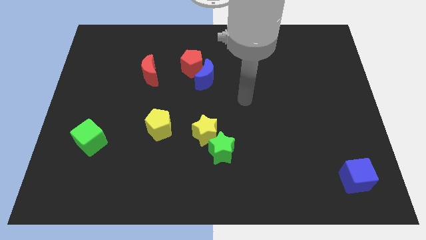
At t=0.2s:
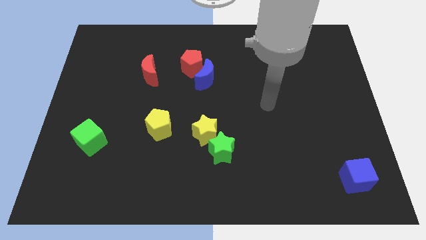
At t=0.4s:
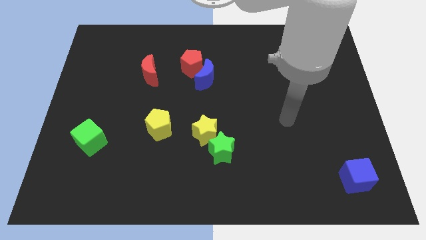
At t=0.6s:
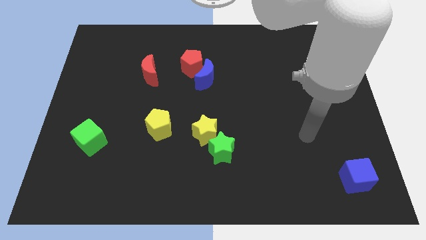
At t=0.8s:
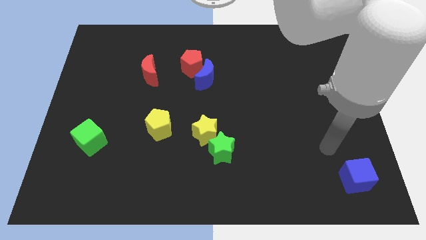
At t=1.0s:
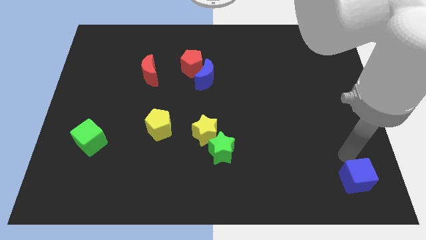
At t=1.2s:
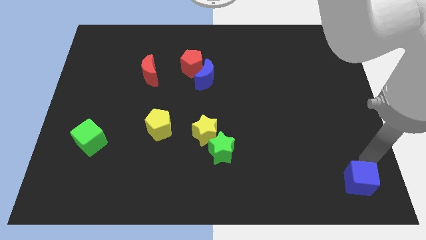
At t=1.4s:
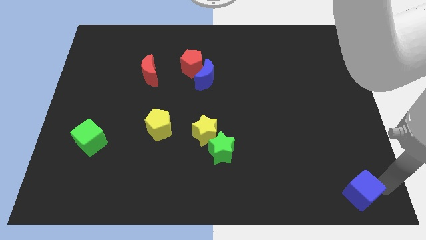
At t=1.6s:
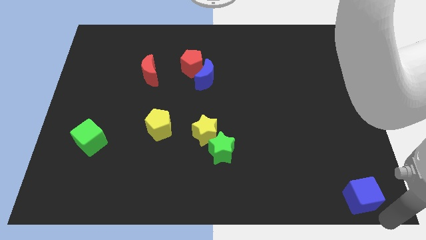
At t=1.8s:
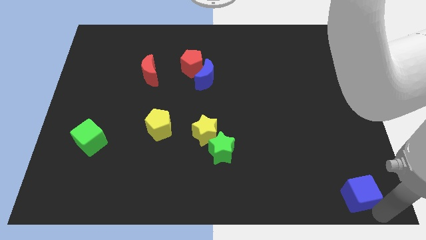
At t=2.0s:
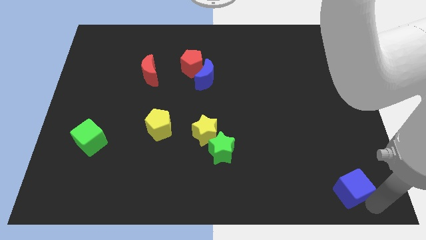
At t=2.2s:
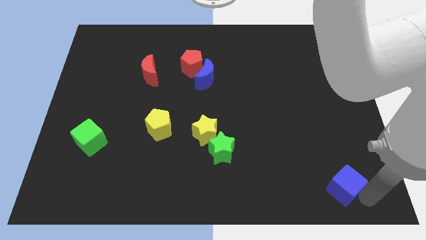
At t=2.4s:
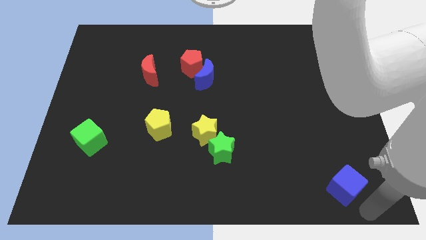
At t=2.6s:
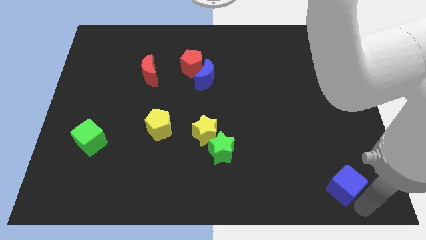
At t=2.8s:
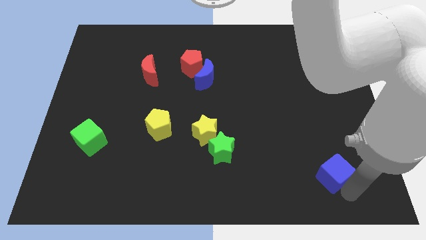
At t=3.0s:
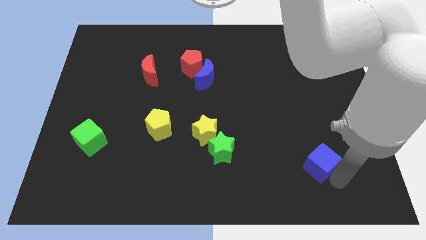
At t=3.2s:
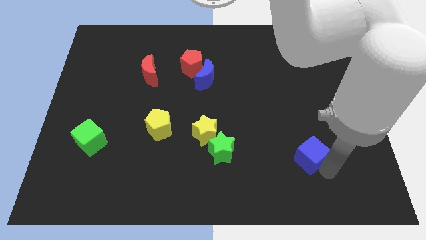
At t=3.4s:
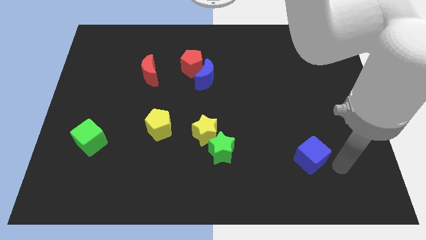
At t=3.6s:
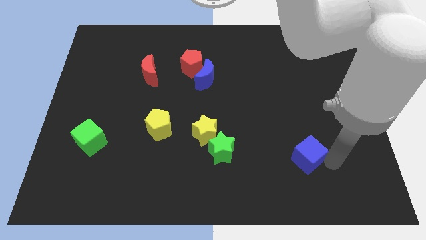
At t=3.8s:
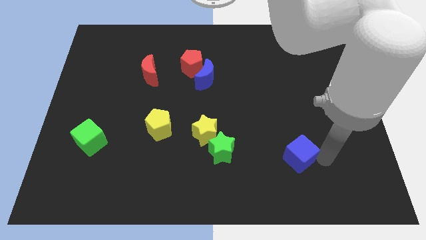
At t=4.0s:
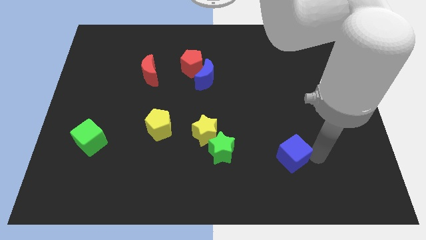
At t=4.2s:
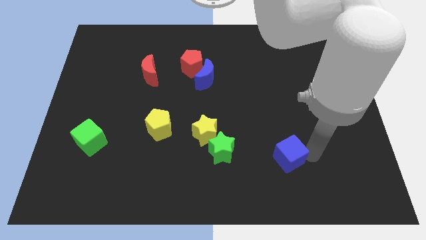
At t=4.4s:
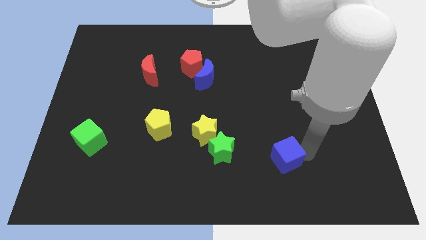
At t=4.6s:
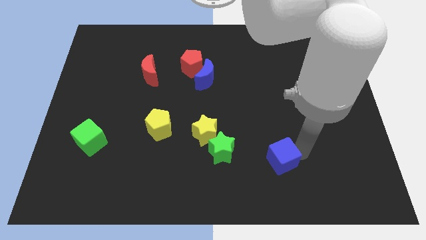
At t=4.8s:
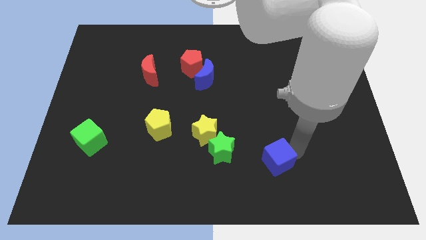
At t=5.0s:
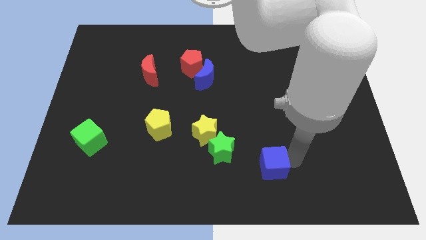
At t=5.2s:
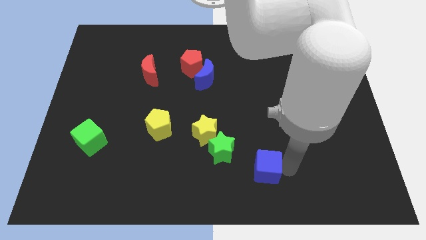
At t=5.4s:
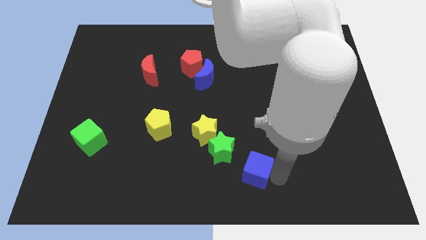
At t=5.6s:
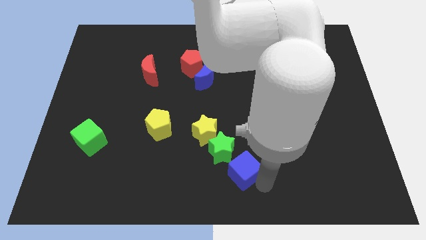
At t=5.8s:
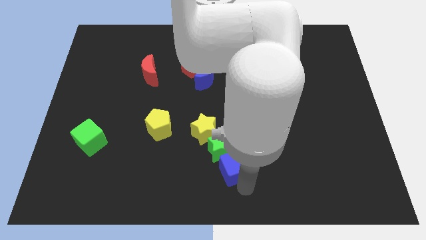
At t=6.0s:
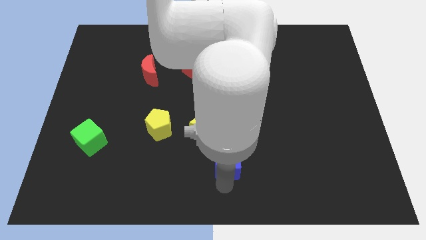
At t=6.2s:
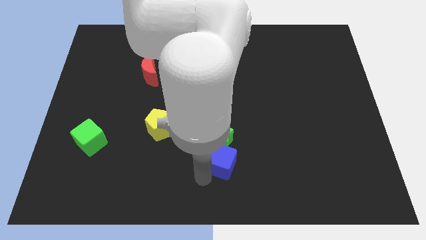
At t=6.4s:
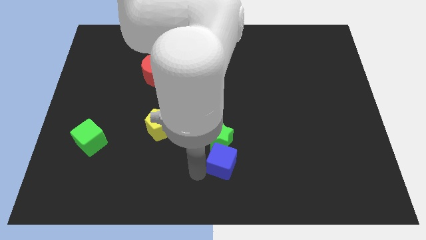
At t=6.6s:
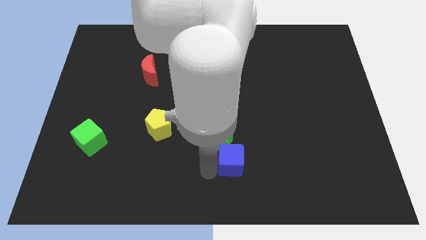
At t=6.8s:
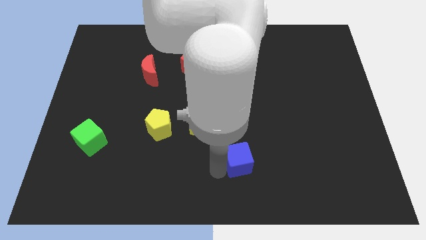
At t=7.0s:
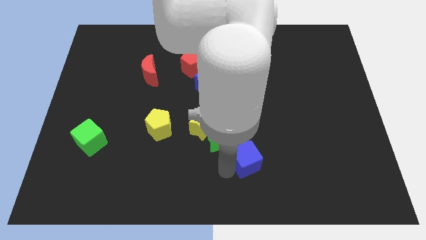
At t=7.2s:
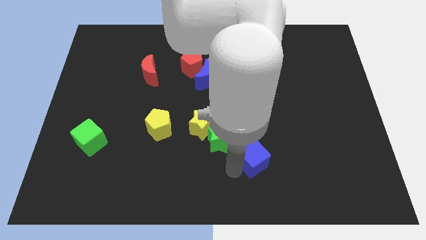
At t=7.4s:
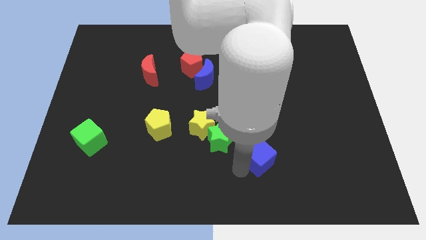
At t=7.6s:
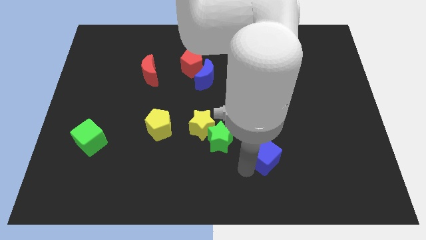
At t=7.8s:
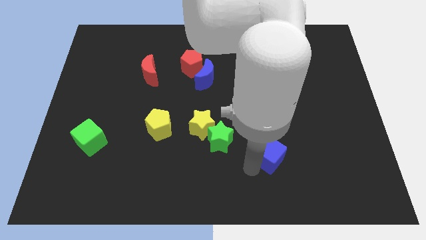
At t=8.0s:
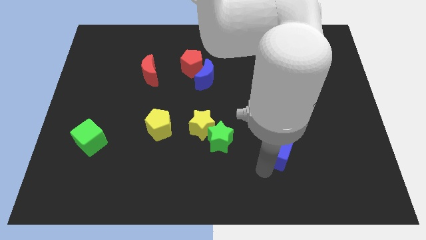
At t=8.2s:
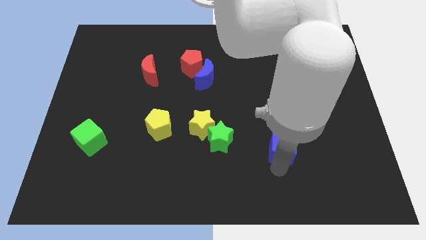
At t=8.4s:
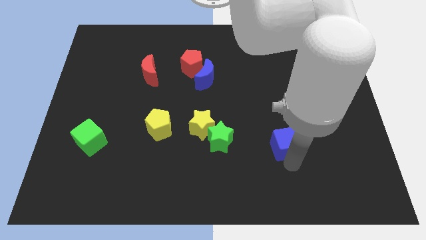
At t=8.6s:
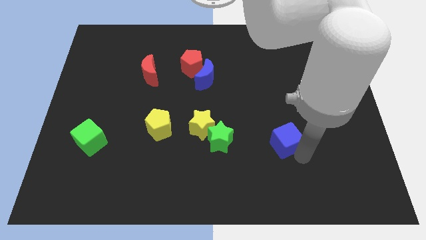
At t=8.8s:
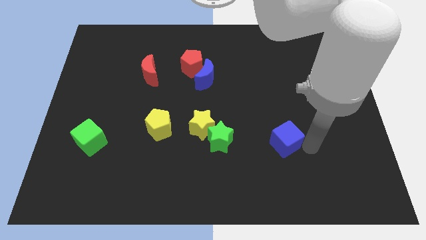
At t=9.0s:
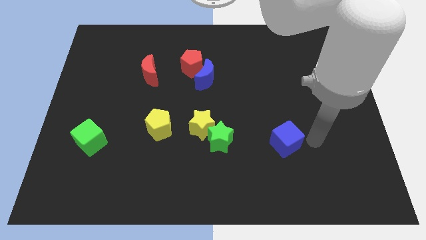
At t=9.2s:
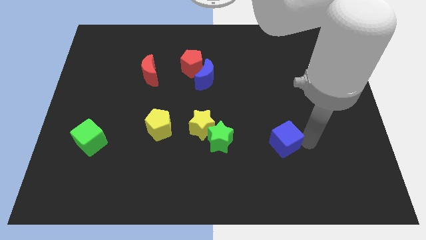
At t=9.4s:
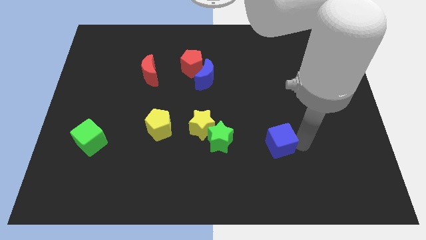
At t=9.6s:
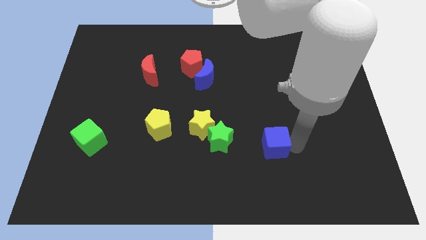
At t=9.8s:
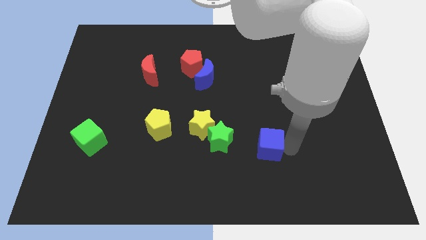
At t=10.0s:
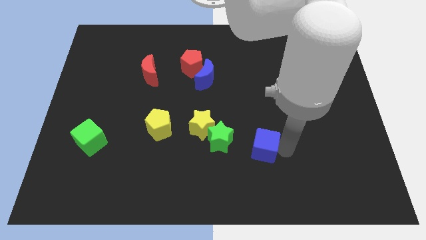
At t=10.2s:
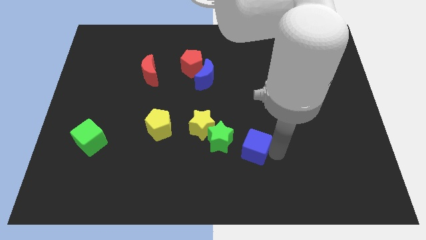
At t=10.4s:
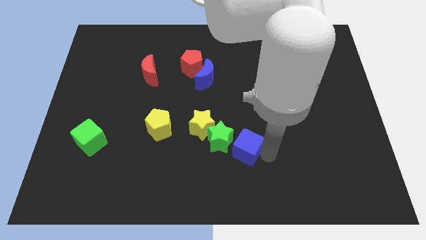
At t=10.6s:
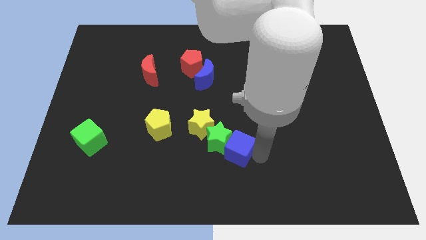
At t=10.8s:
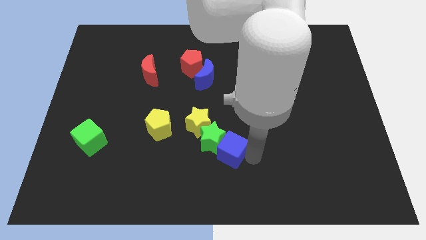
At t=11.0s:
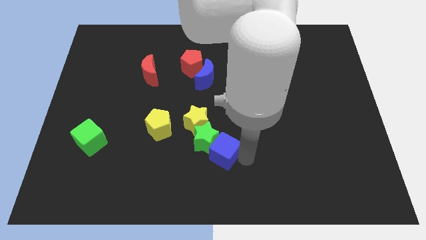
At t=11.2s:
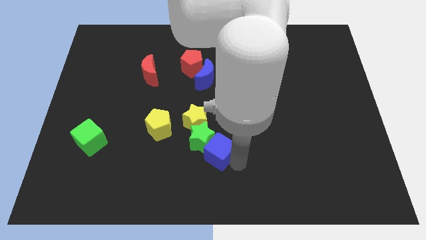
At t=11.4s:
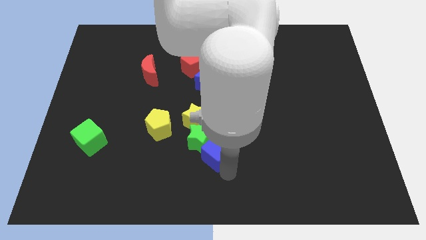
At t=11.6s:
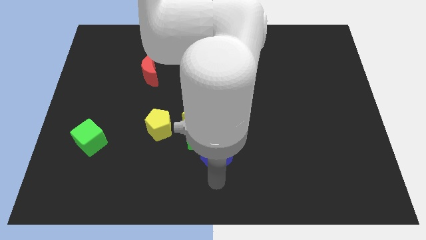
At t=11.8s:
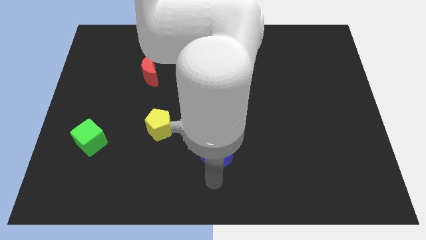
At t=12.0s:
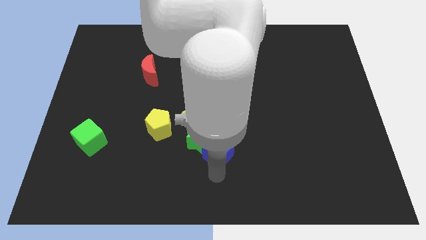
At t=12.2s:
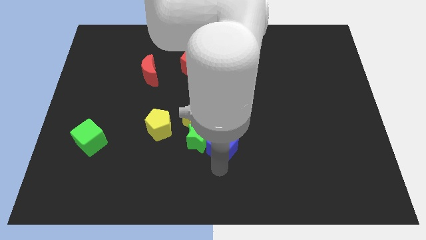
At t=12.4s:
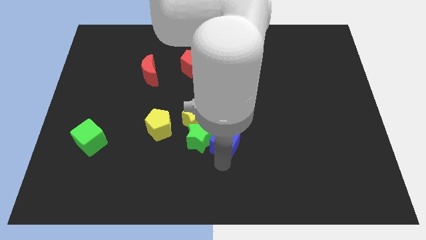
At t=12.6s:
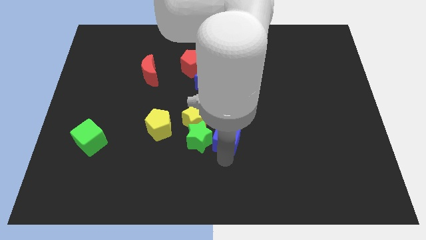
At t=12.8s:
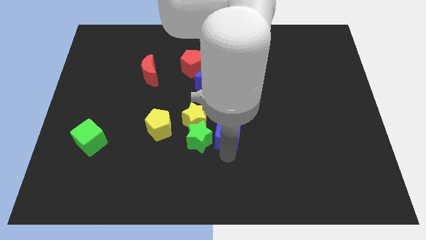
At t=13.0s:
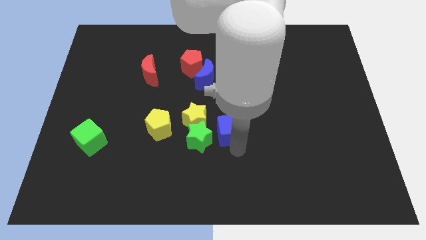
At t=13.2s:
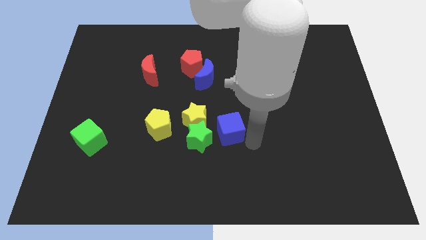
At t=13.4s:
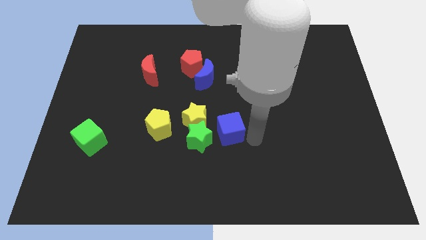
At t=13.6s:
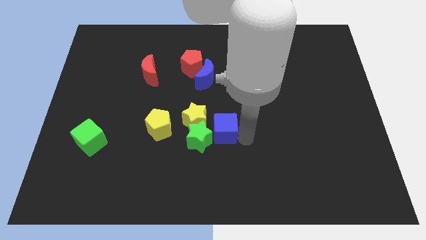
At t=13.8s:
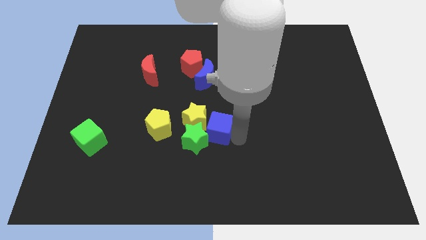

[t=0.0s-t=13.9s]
slide the blue cube to the yellow star

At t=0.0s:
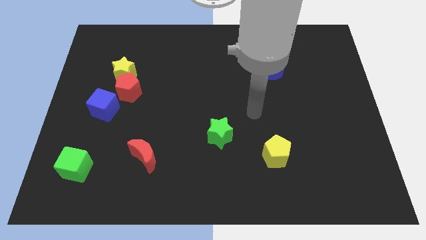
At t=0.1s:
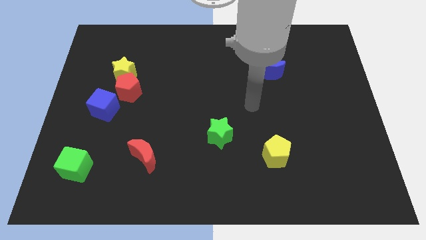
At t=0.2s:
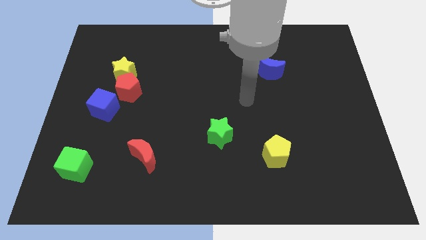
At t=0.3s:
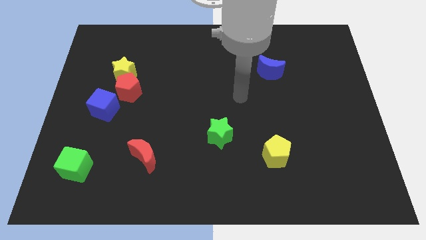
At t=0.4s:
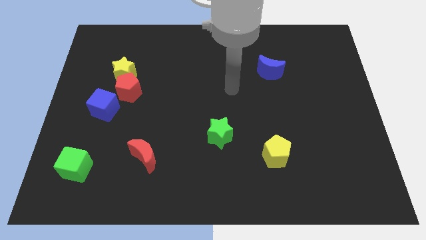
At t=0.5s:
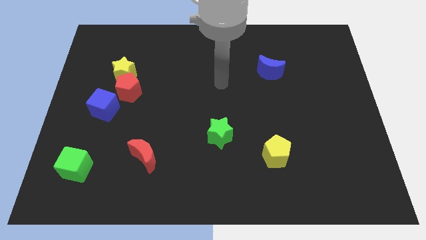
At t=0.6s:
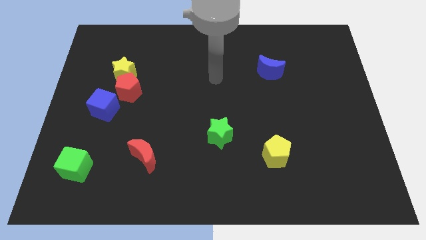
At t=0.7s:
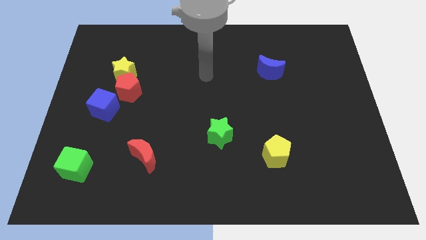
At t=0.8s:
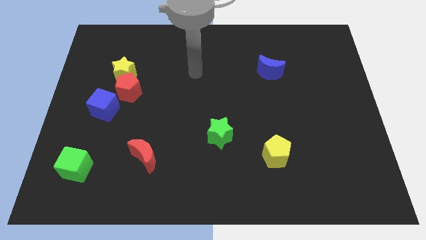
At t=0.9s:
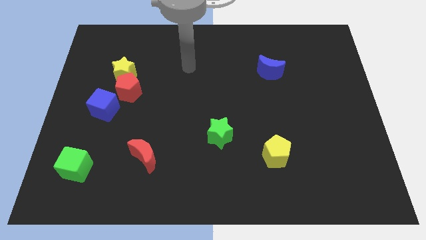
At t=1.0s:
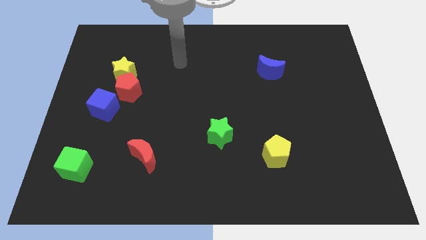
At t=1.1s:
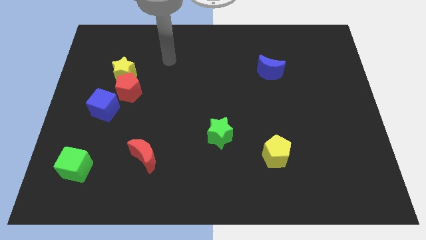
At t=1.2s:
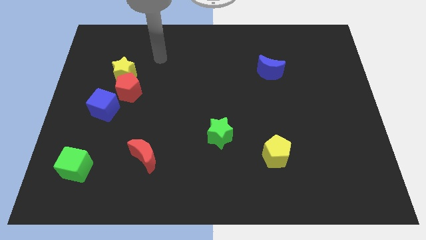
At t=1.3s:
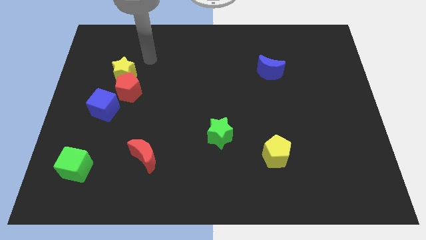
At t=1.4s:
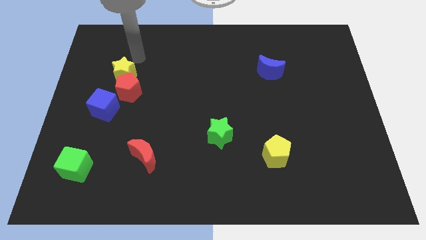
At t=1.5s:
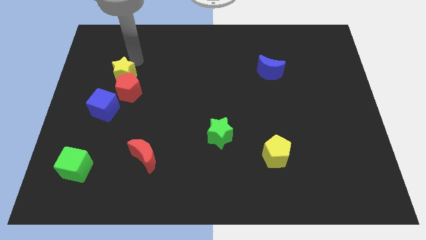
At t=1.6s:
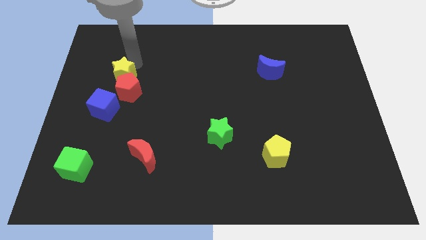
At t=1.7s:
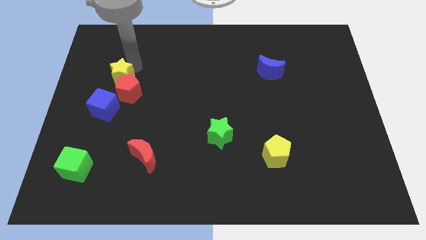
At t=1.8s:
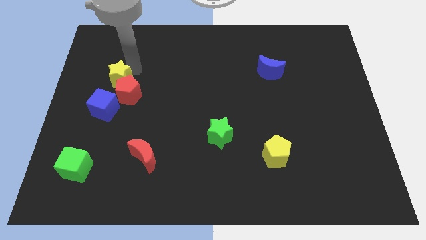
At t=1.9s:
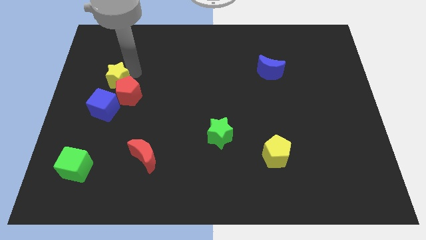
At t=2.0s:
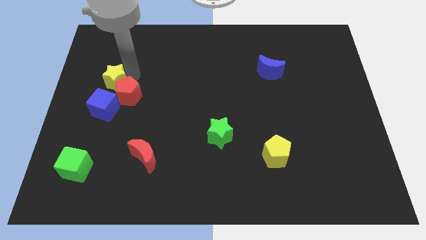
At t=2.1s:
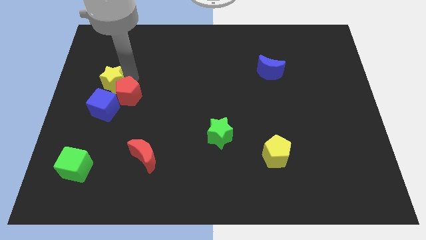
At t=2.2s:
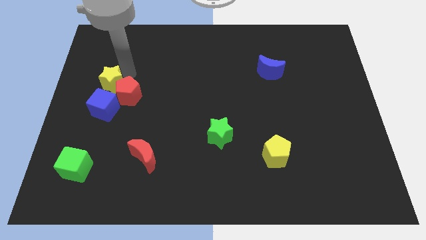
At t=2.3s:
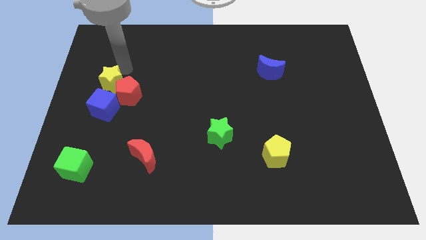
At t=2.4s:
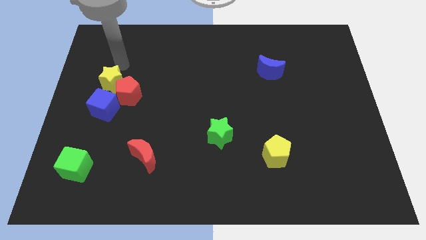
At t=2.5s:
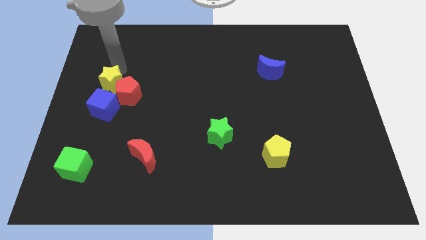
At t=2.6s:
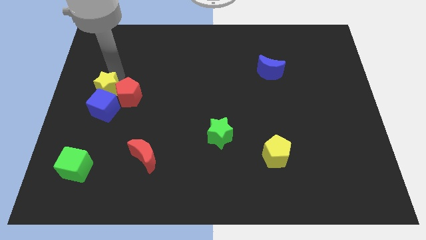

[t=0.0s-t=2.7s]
put the yellow star next to the blue cube
